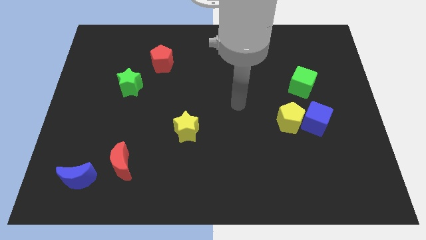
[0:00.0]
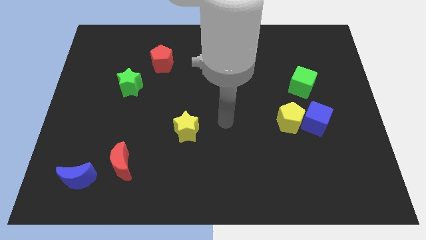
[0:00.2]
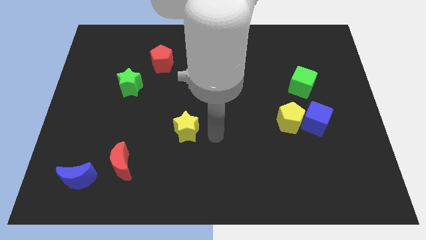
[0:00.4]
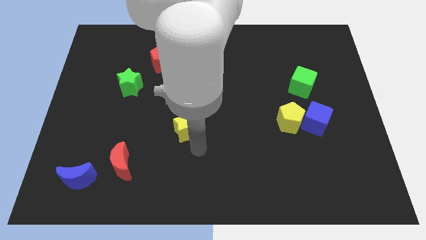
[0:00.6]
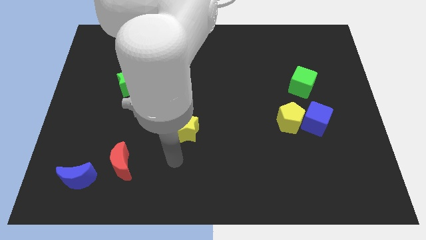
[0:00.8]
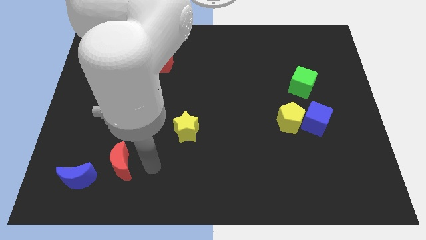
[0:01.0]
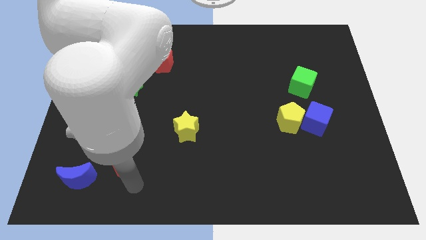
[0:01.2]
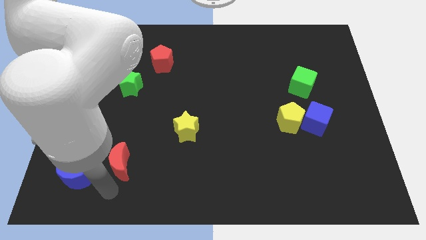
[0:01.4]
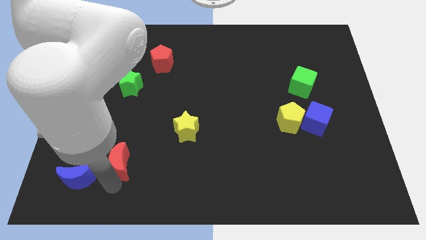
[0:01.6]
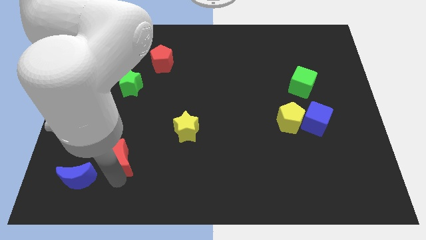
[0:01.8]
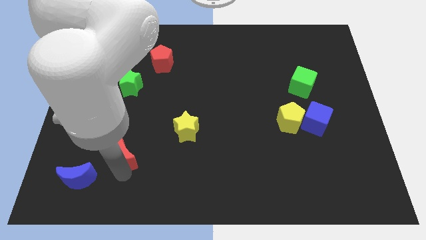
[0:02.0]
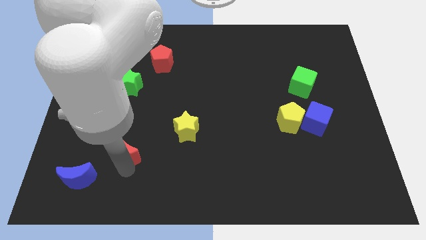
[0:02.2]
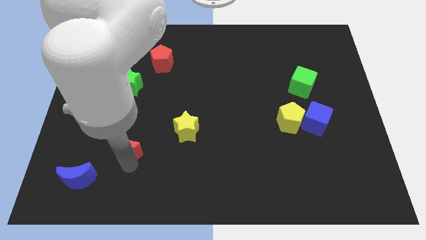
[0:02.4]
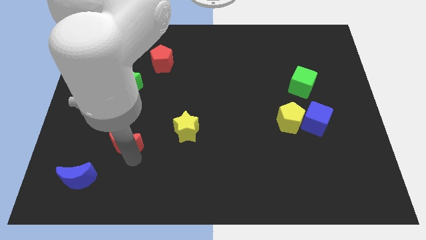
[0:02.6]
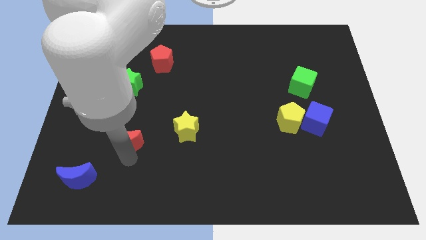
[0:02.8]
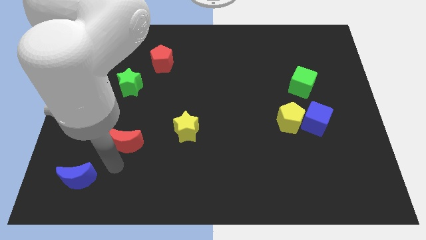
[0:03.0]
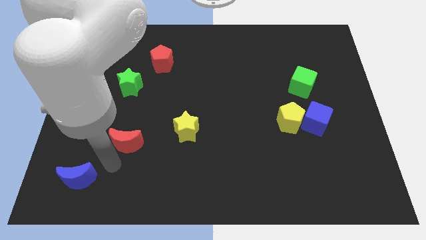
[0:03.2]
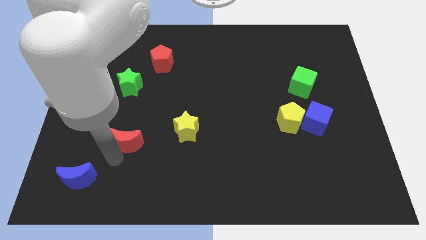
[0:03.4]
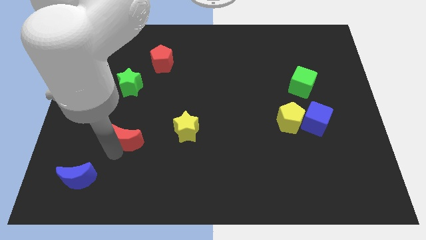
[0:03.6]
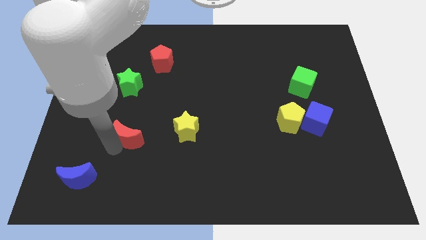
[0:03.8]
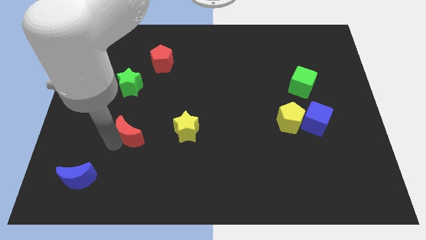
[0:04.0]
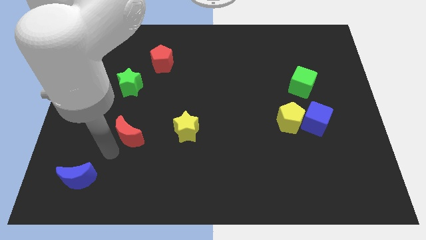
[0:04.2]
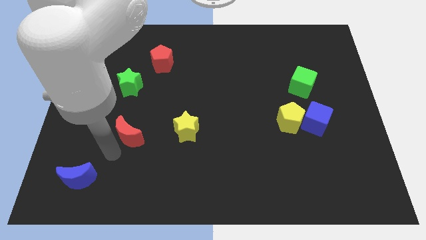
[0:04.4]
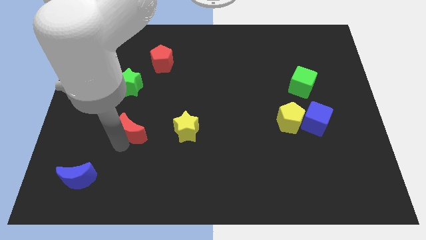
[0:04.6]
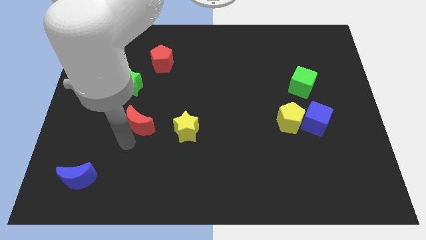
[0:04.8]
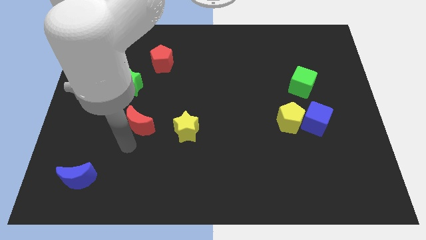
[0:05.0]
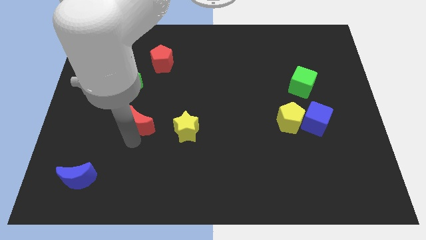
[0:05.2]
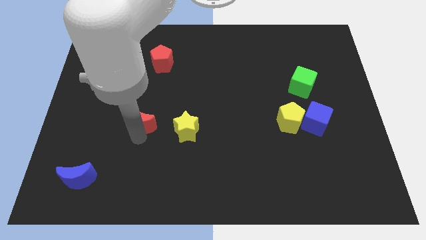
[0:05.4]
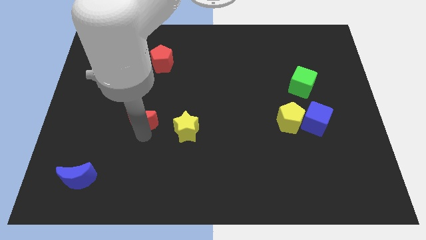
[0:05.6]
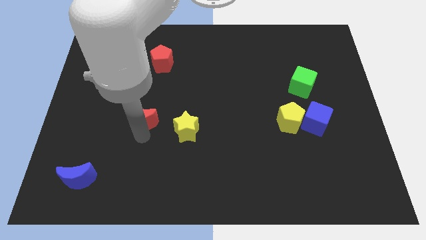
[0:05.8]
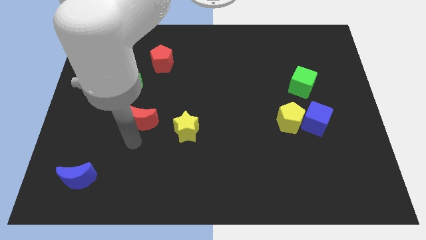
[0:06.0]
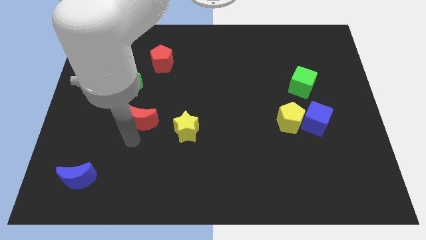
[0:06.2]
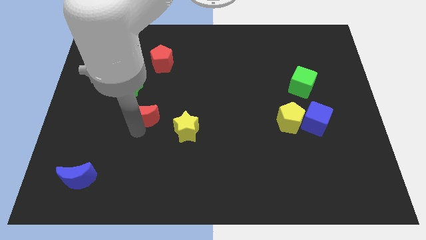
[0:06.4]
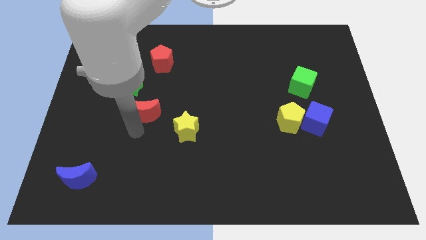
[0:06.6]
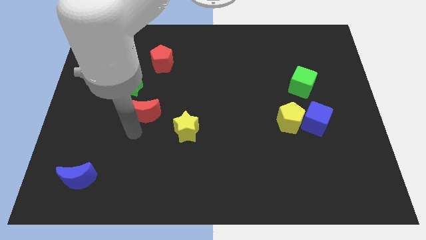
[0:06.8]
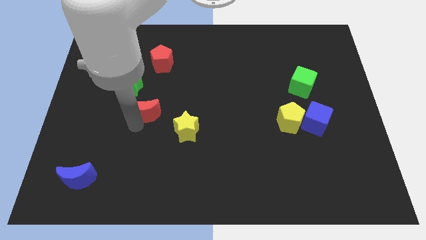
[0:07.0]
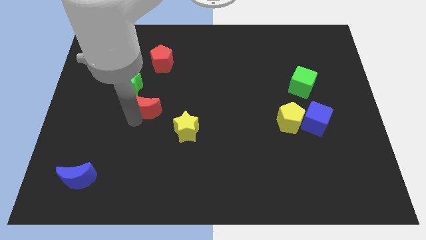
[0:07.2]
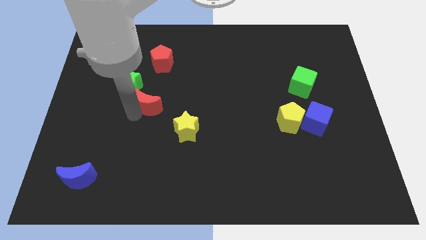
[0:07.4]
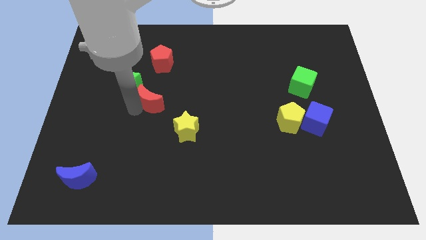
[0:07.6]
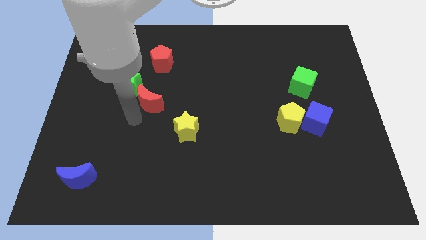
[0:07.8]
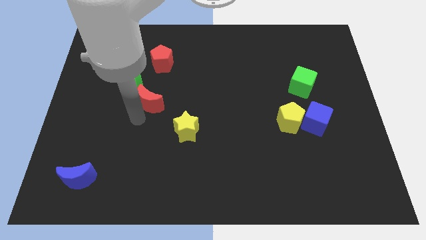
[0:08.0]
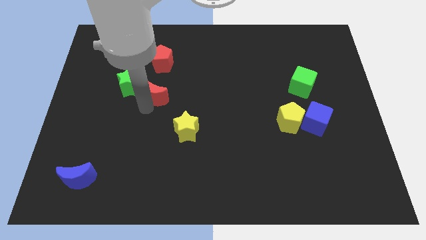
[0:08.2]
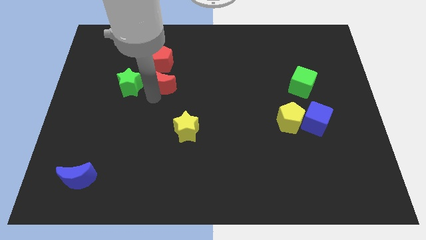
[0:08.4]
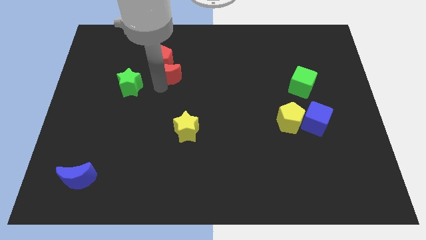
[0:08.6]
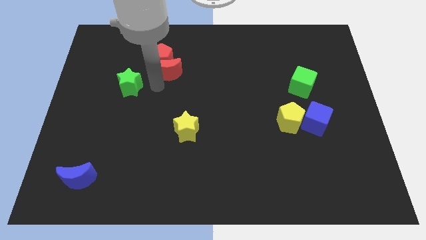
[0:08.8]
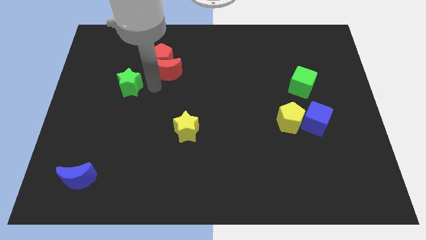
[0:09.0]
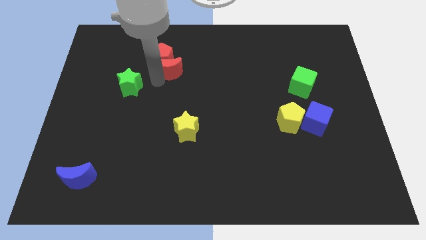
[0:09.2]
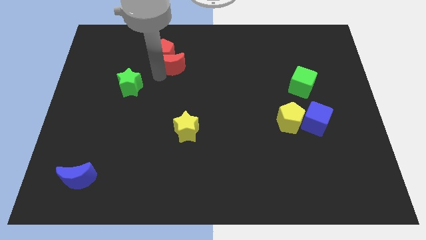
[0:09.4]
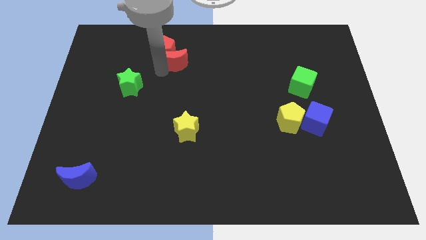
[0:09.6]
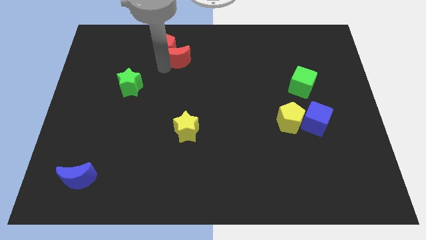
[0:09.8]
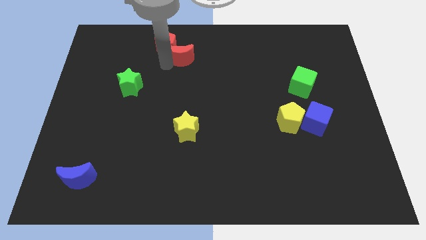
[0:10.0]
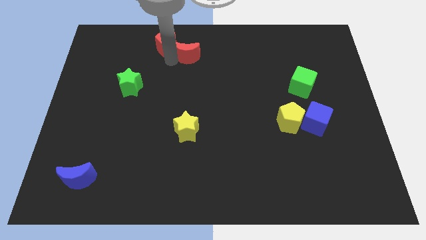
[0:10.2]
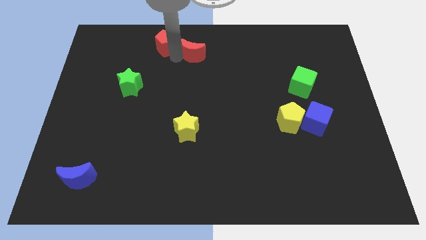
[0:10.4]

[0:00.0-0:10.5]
slide the red moon to the towards your base

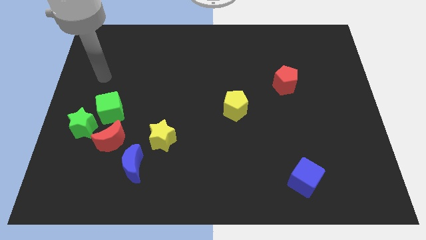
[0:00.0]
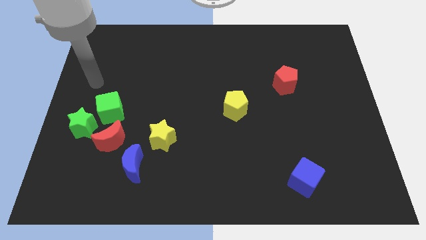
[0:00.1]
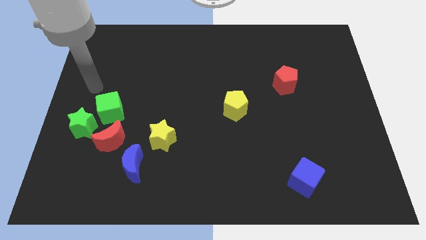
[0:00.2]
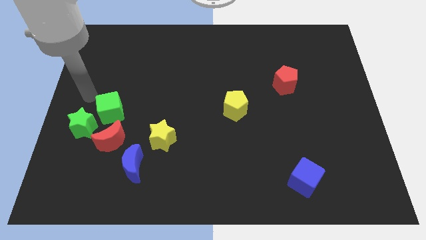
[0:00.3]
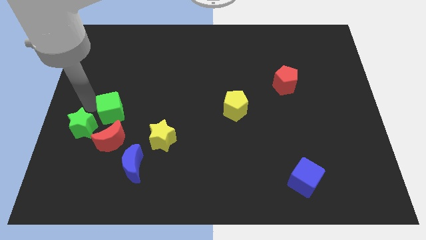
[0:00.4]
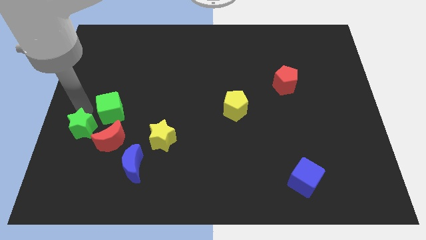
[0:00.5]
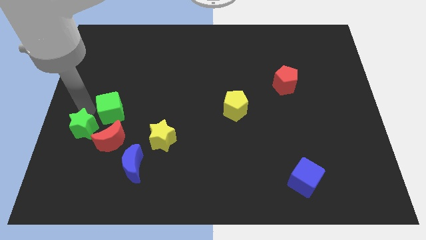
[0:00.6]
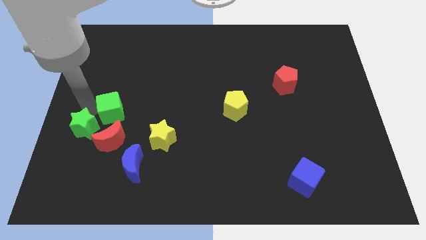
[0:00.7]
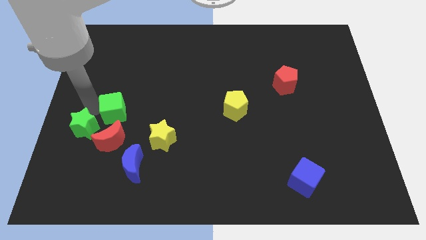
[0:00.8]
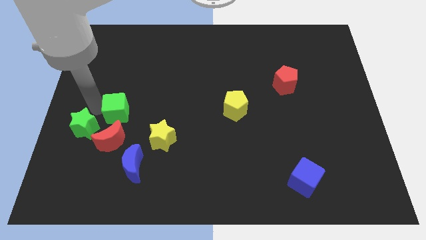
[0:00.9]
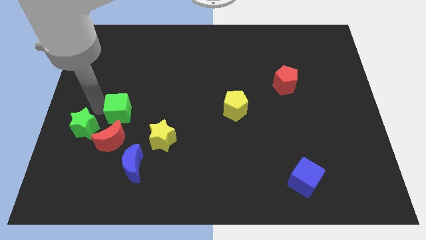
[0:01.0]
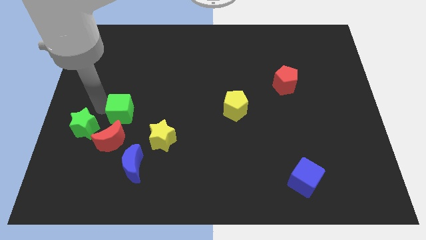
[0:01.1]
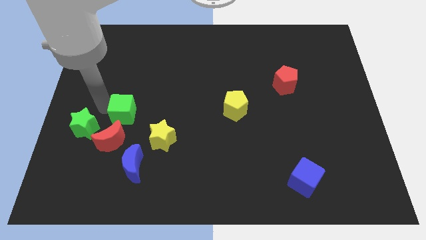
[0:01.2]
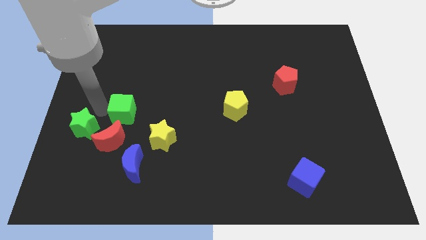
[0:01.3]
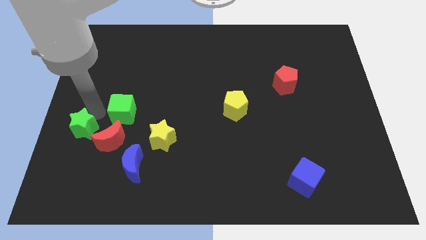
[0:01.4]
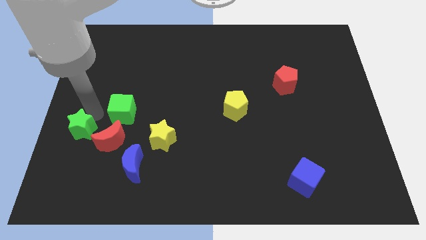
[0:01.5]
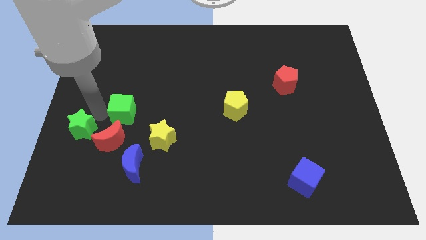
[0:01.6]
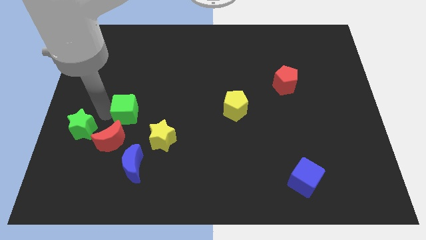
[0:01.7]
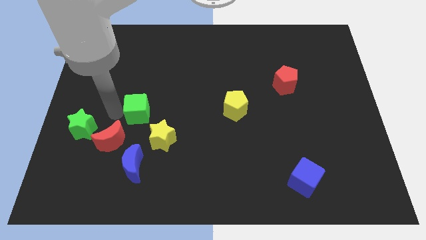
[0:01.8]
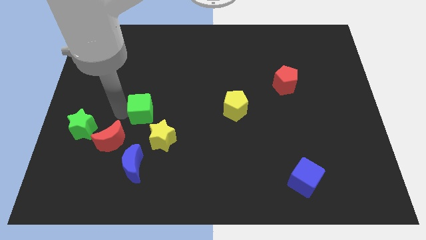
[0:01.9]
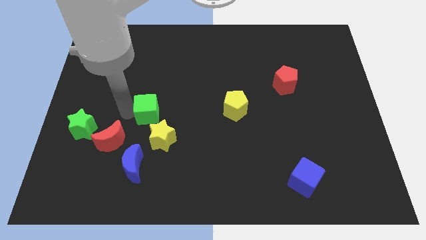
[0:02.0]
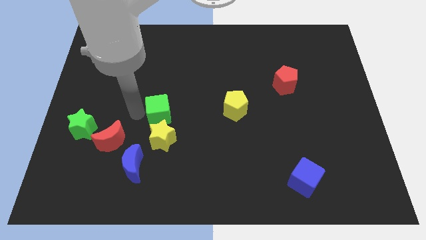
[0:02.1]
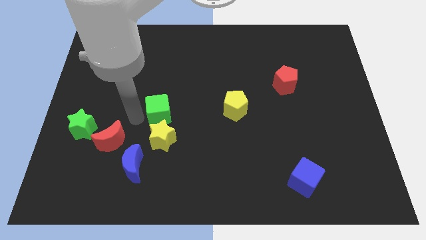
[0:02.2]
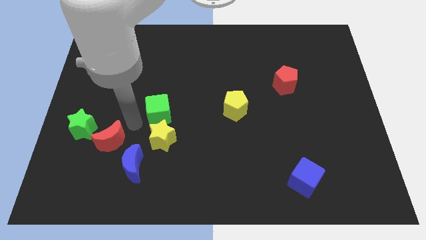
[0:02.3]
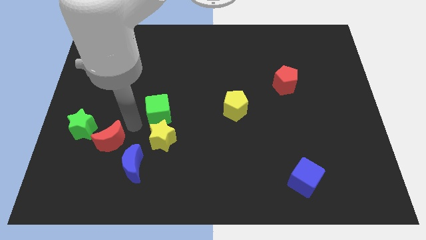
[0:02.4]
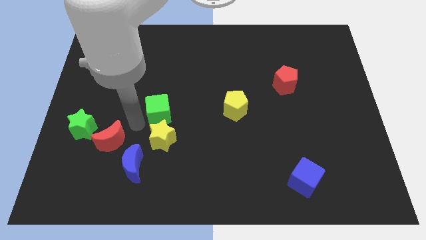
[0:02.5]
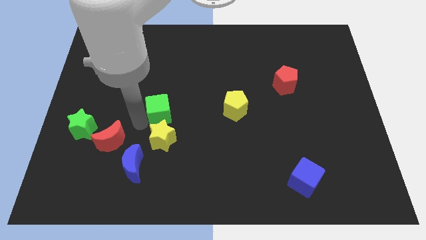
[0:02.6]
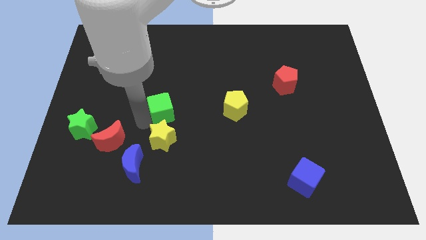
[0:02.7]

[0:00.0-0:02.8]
slide the green cube to the center
